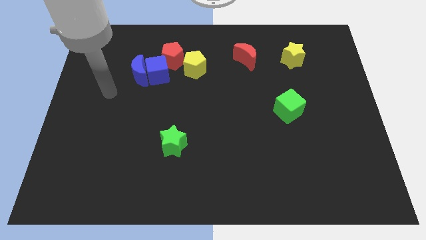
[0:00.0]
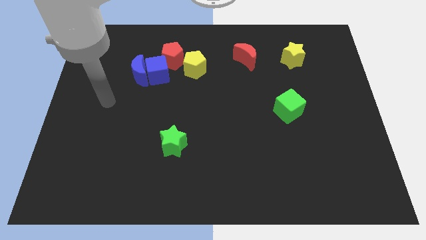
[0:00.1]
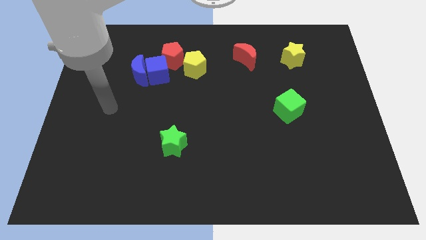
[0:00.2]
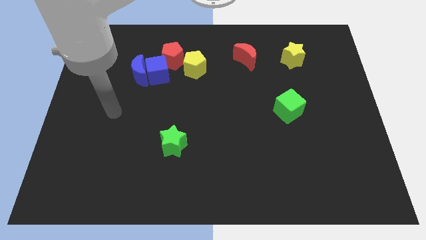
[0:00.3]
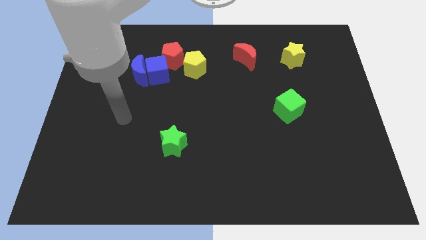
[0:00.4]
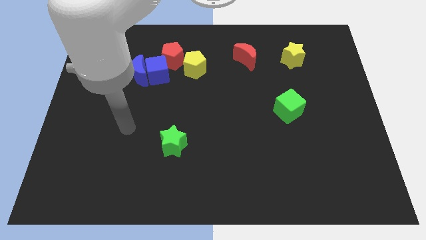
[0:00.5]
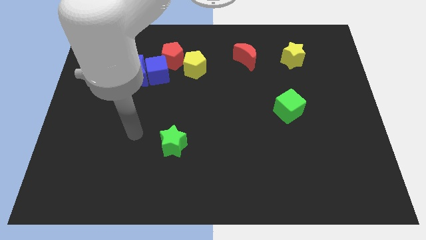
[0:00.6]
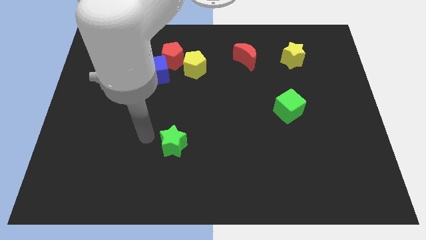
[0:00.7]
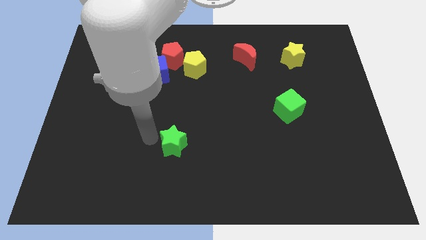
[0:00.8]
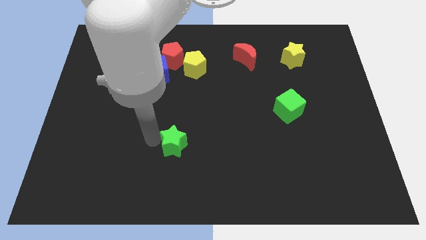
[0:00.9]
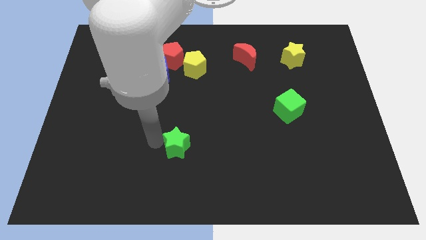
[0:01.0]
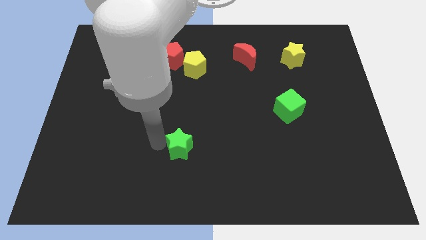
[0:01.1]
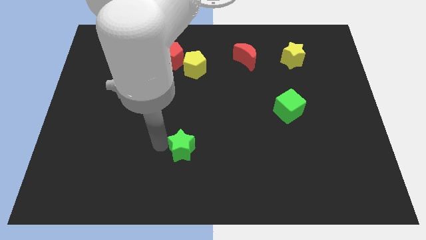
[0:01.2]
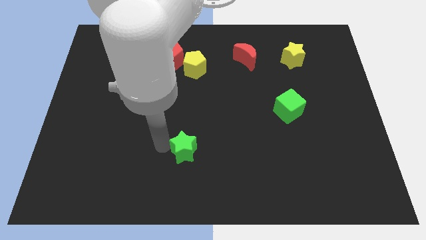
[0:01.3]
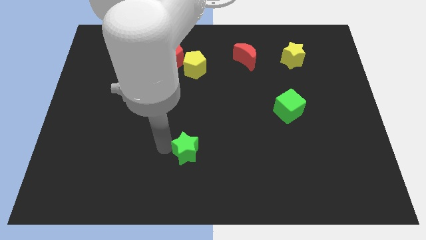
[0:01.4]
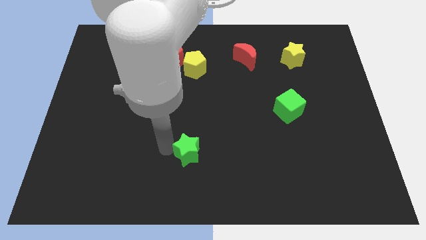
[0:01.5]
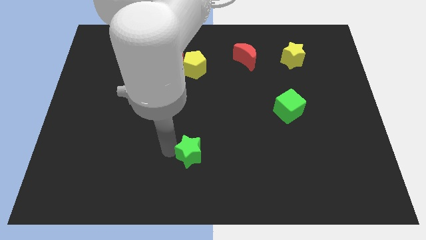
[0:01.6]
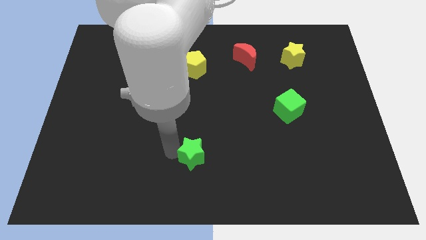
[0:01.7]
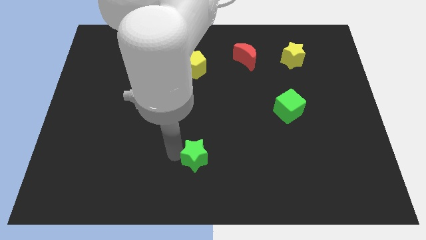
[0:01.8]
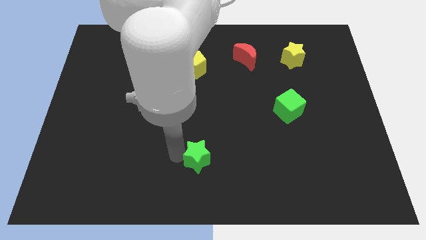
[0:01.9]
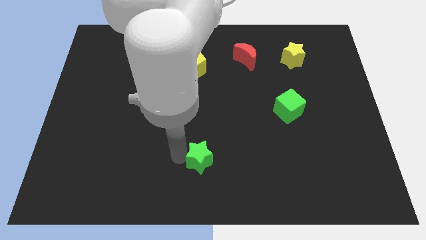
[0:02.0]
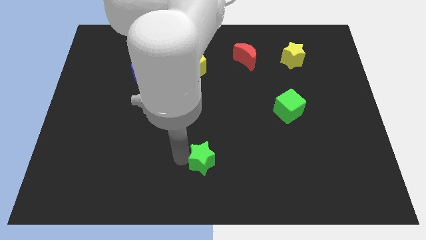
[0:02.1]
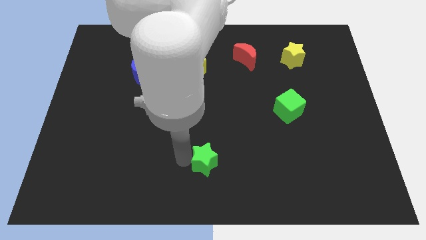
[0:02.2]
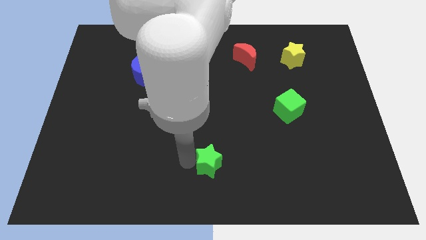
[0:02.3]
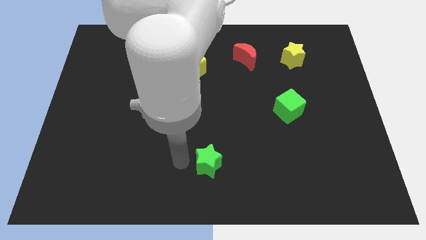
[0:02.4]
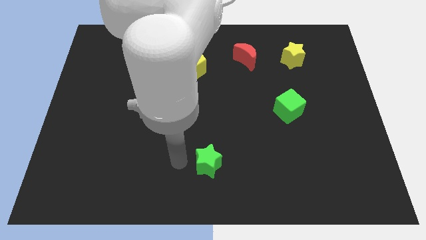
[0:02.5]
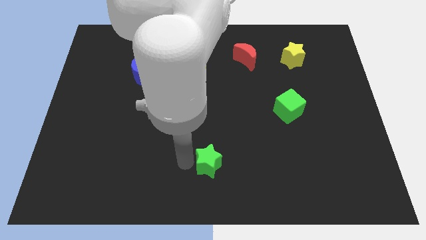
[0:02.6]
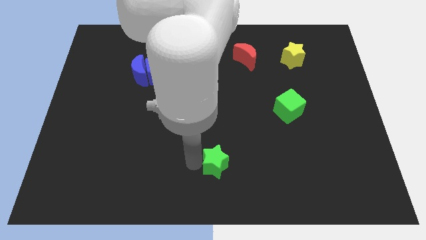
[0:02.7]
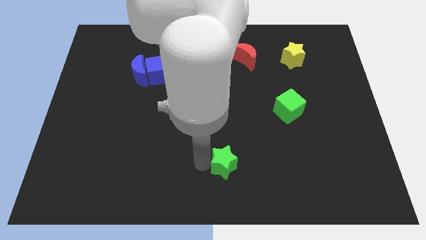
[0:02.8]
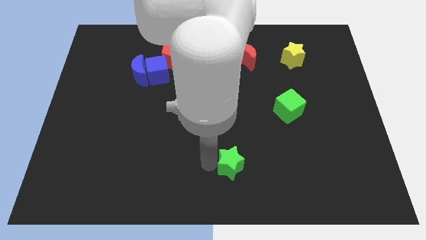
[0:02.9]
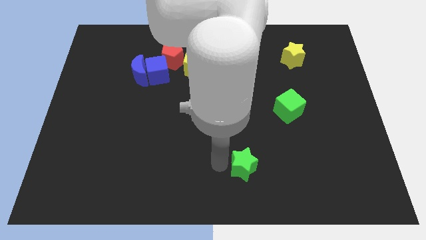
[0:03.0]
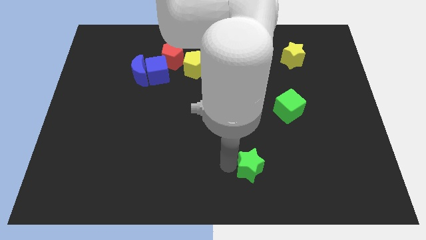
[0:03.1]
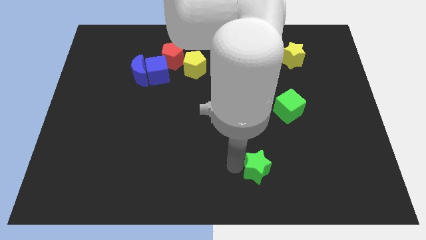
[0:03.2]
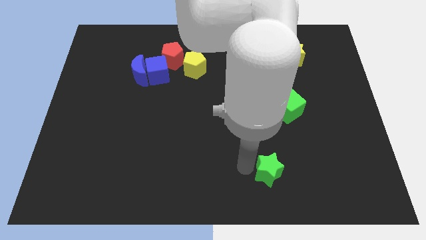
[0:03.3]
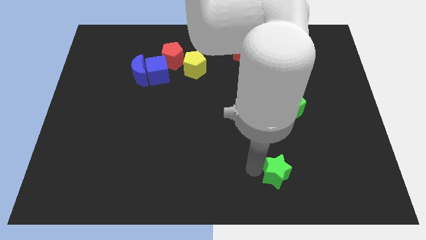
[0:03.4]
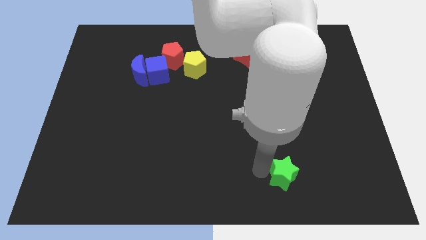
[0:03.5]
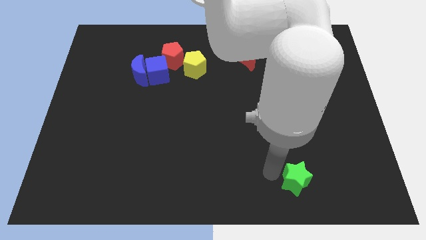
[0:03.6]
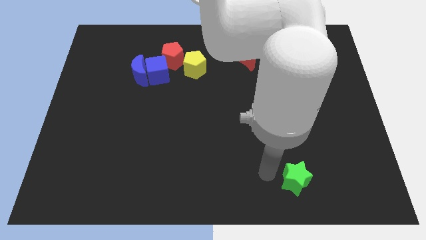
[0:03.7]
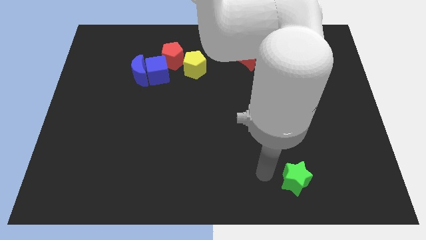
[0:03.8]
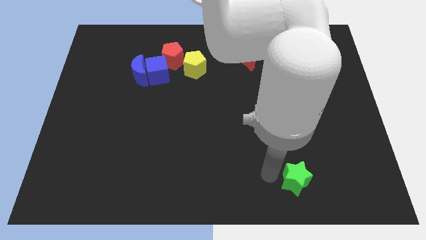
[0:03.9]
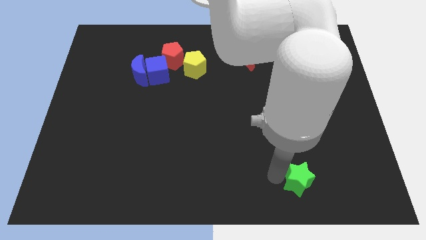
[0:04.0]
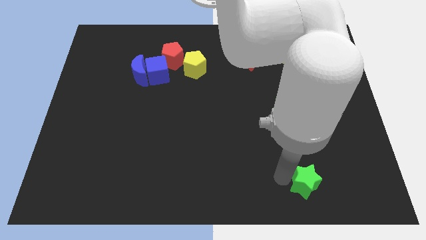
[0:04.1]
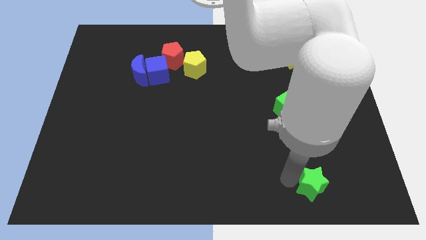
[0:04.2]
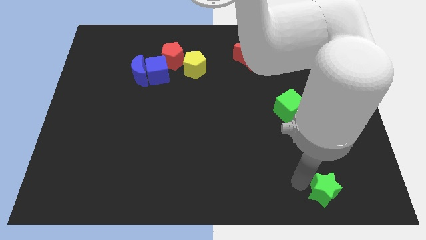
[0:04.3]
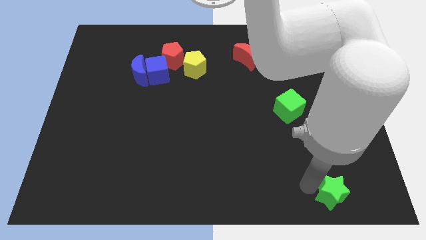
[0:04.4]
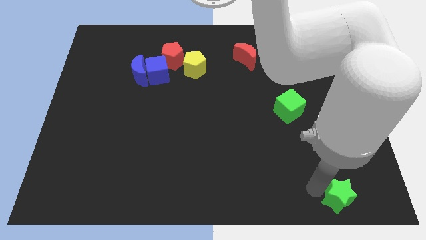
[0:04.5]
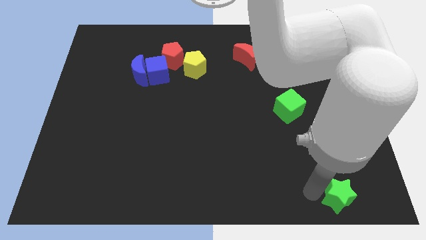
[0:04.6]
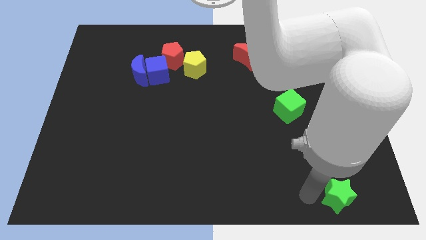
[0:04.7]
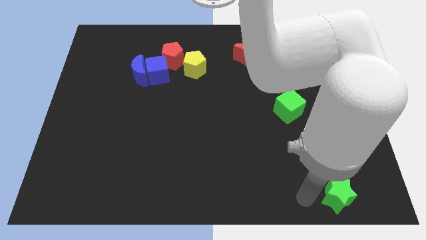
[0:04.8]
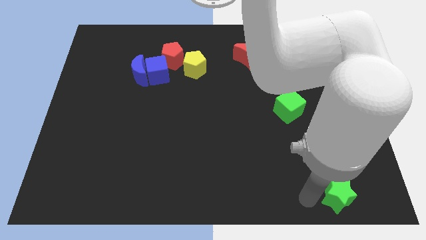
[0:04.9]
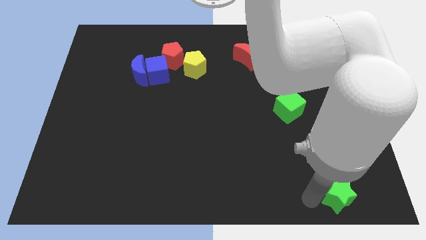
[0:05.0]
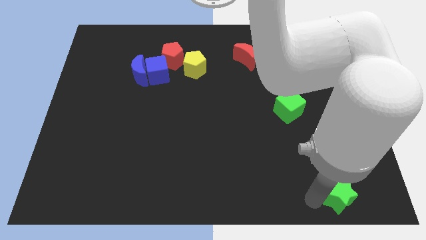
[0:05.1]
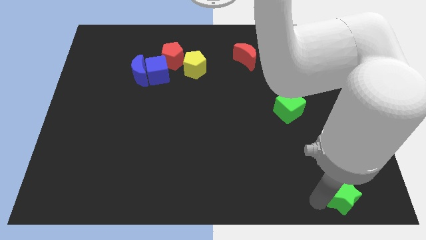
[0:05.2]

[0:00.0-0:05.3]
put the green star to the bottom right corner

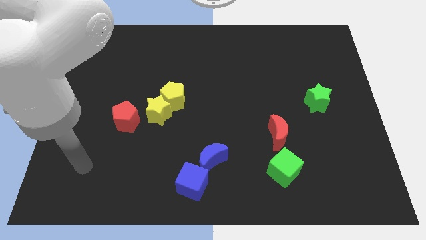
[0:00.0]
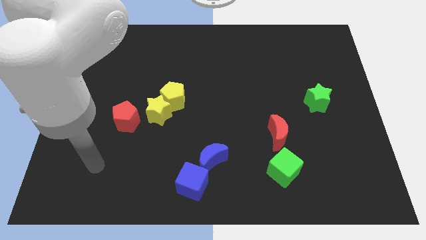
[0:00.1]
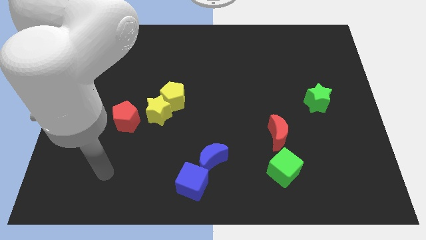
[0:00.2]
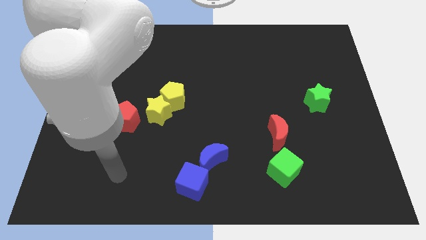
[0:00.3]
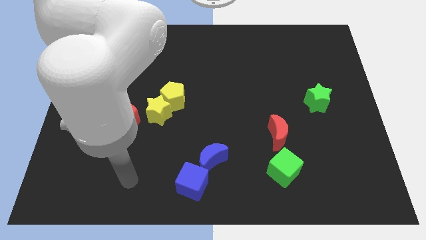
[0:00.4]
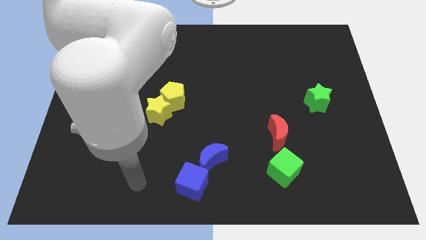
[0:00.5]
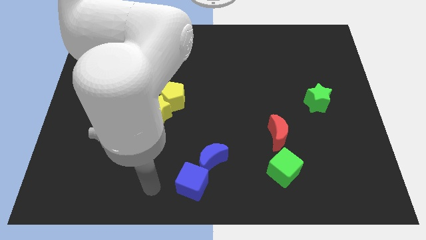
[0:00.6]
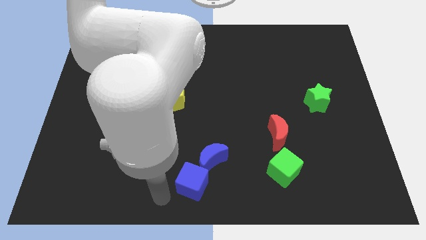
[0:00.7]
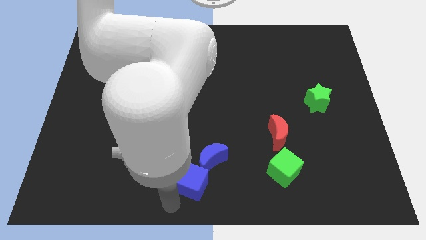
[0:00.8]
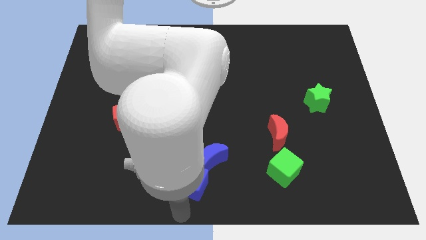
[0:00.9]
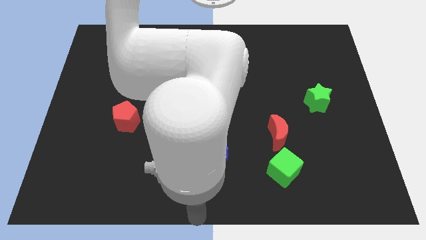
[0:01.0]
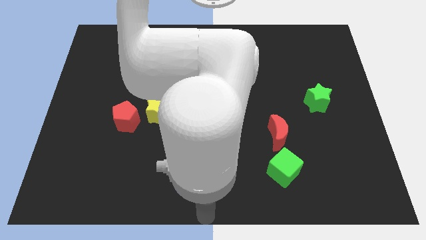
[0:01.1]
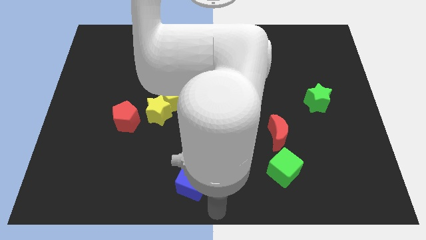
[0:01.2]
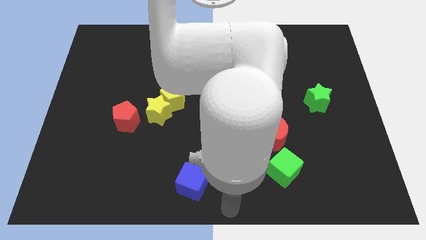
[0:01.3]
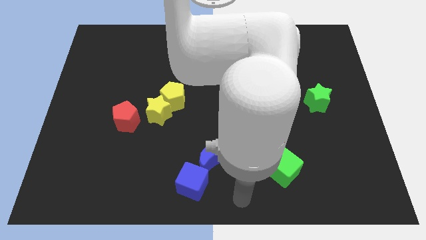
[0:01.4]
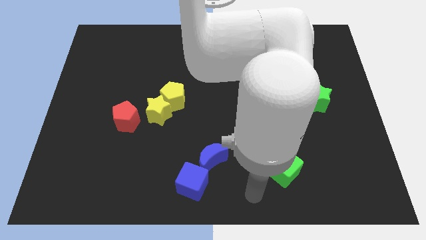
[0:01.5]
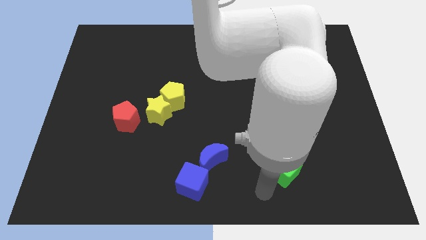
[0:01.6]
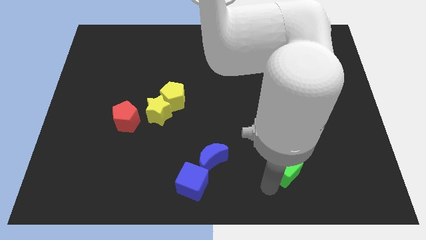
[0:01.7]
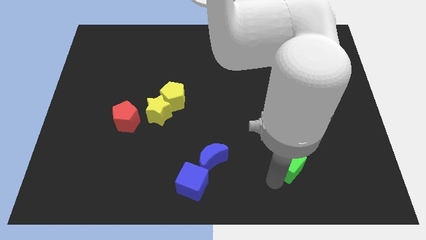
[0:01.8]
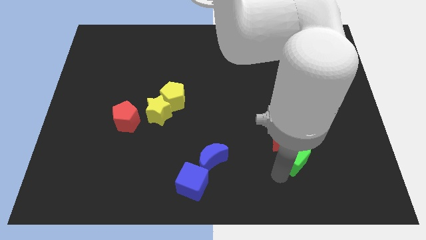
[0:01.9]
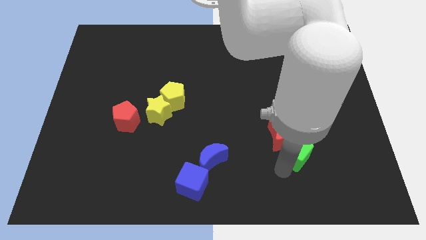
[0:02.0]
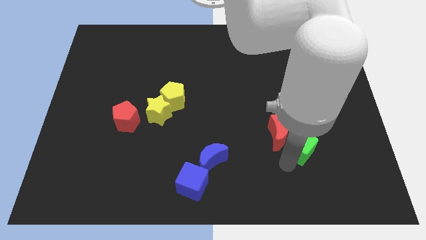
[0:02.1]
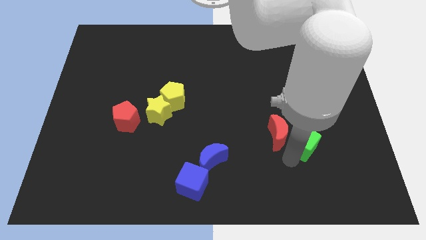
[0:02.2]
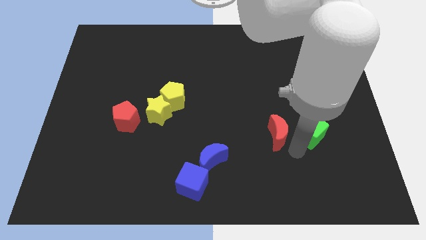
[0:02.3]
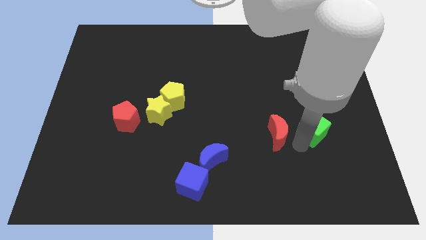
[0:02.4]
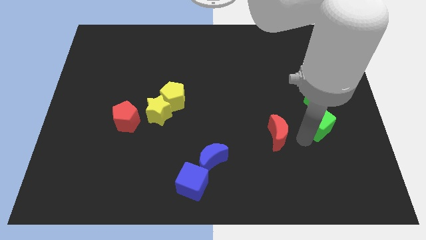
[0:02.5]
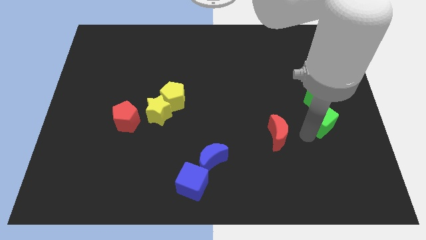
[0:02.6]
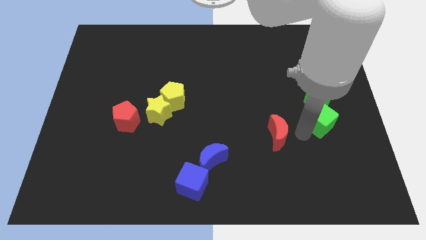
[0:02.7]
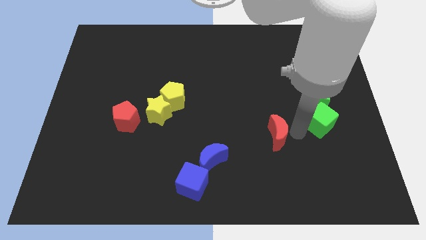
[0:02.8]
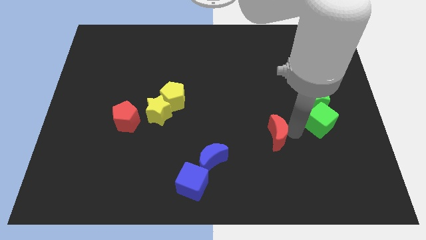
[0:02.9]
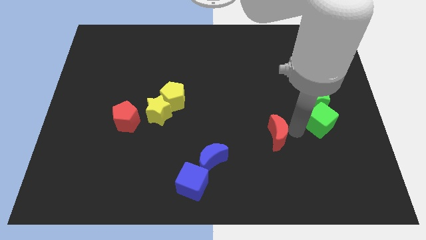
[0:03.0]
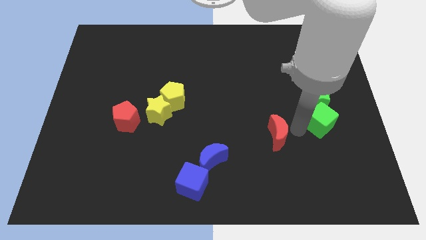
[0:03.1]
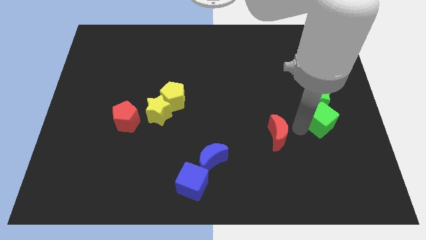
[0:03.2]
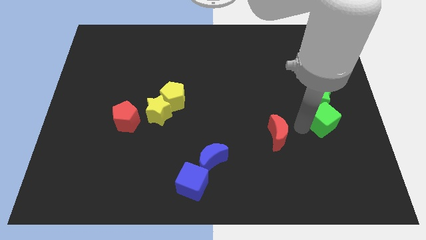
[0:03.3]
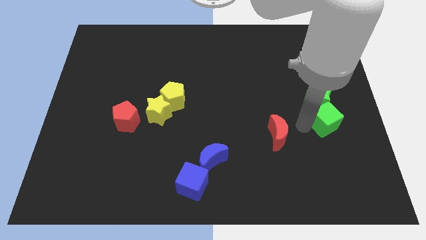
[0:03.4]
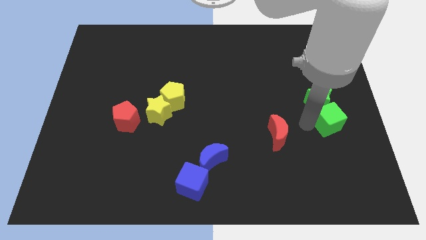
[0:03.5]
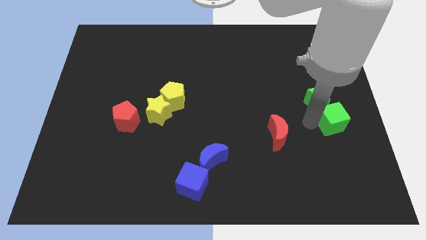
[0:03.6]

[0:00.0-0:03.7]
push the green cube to the right side
